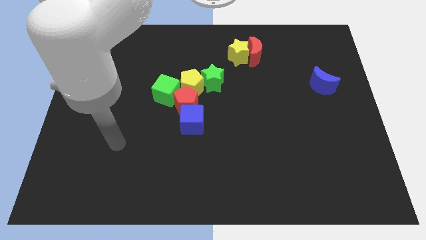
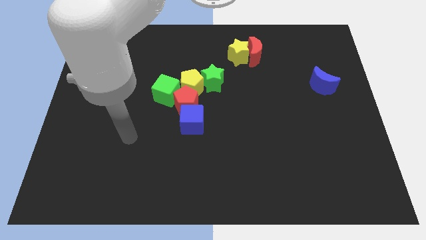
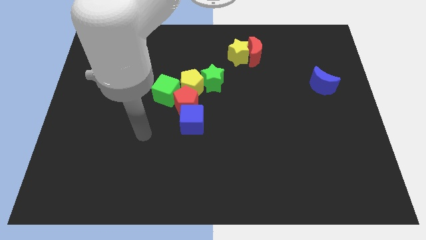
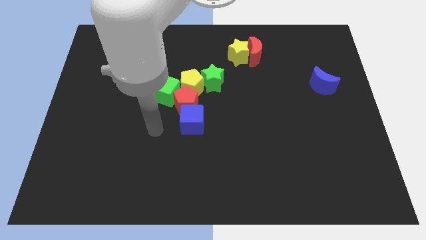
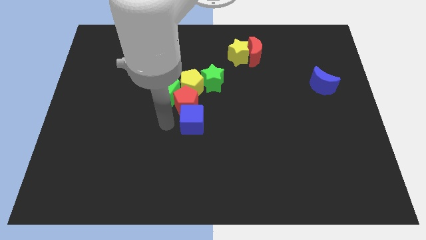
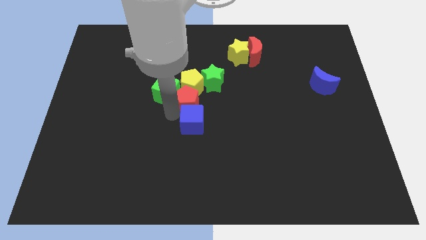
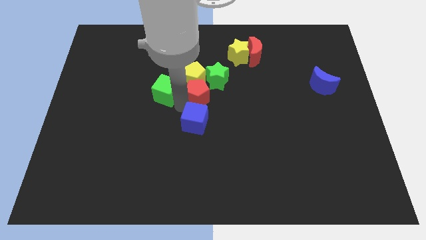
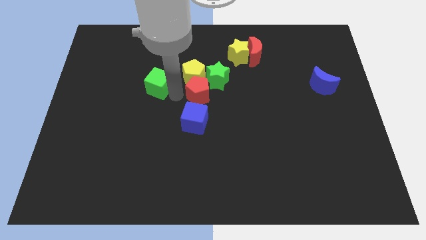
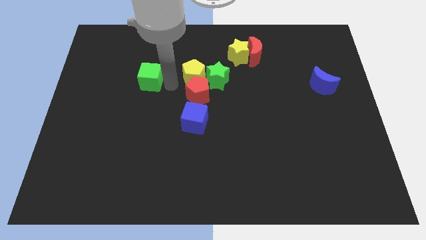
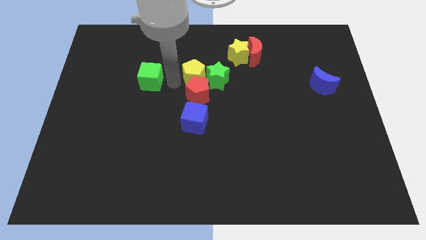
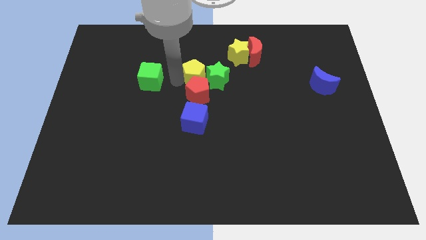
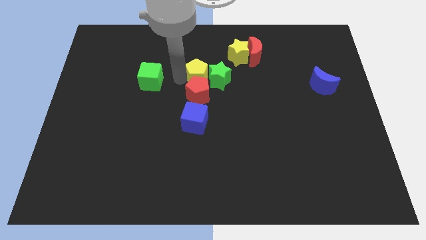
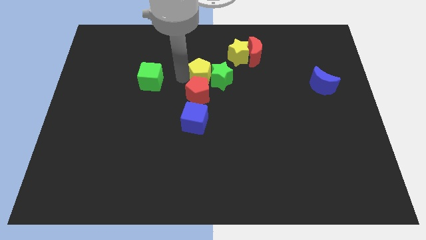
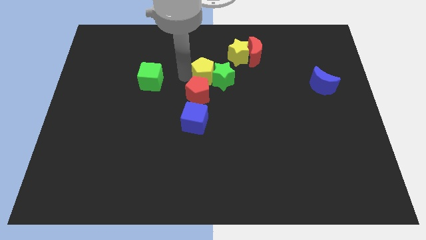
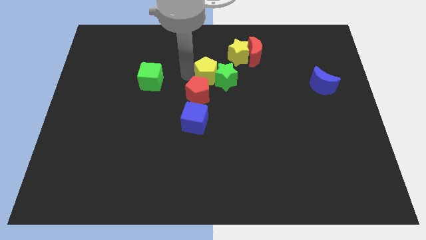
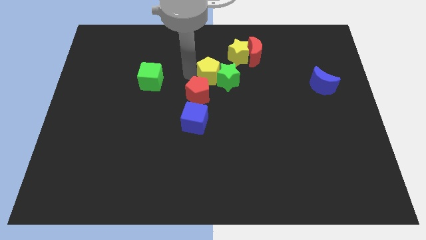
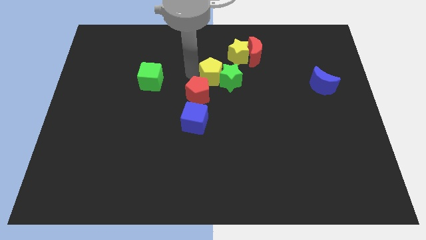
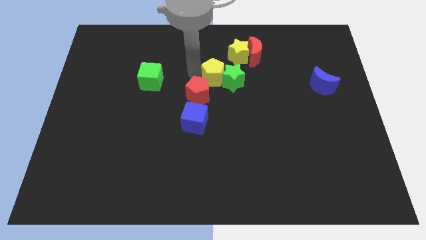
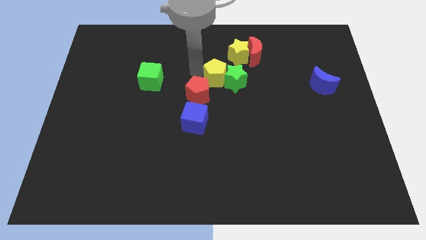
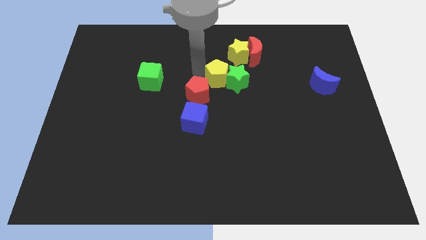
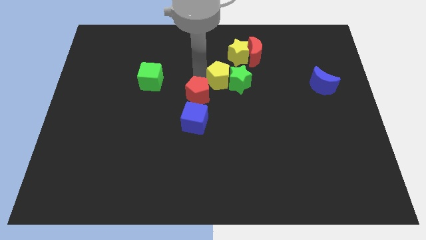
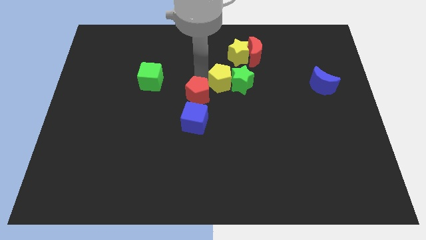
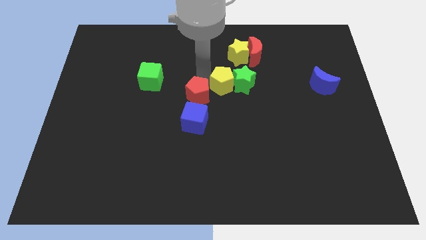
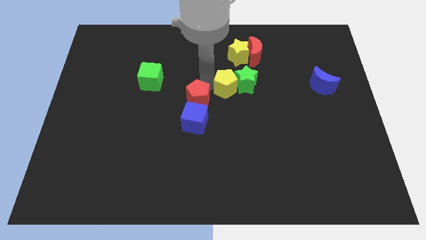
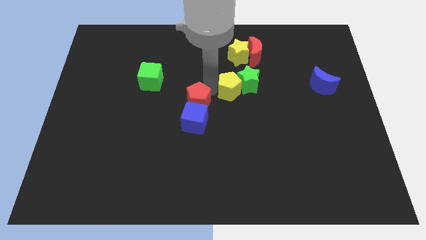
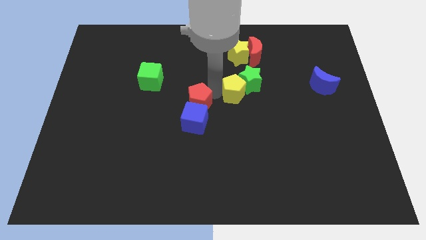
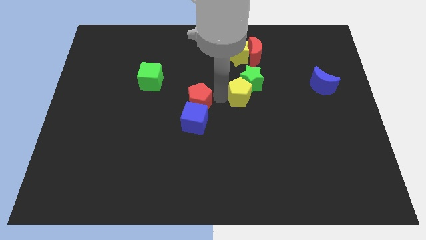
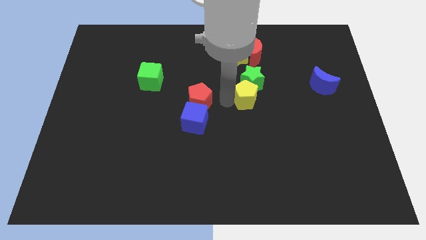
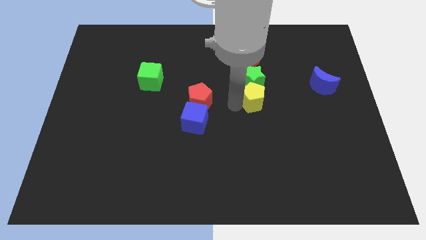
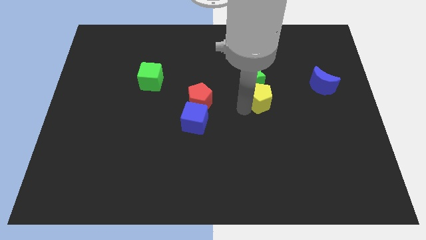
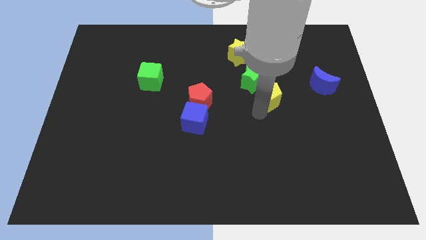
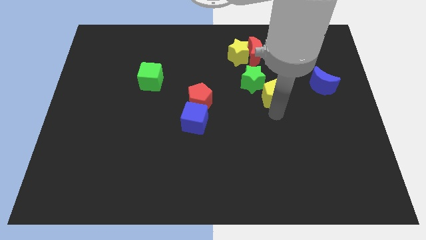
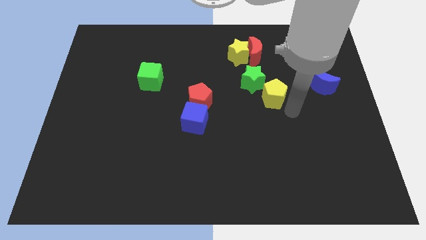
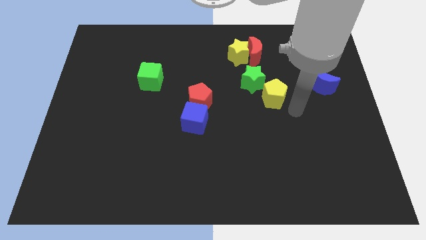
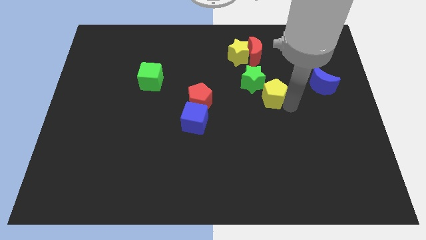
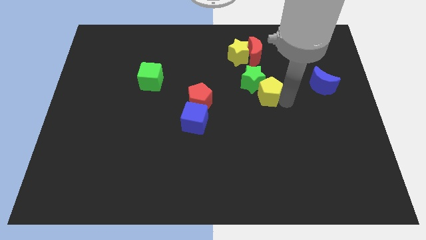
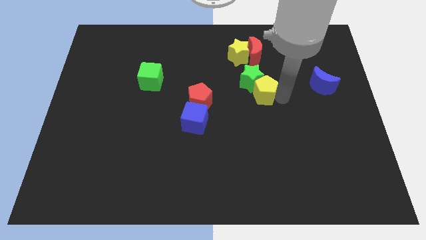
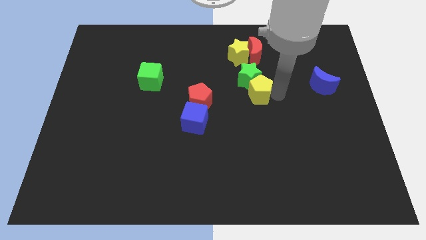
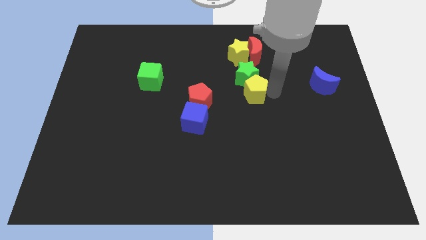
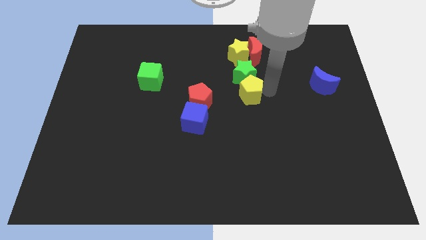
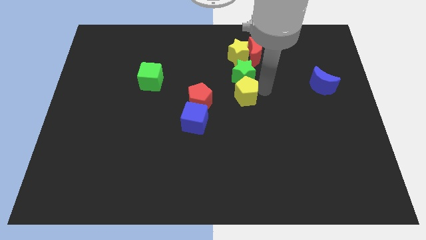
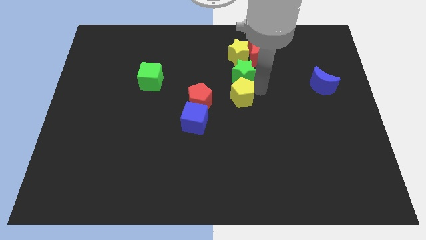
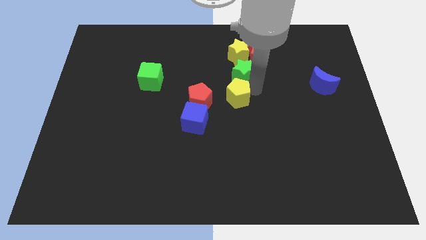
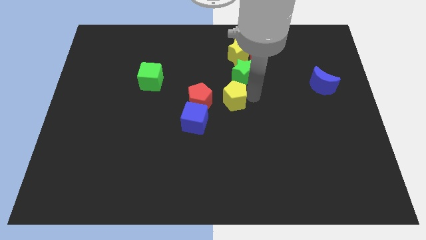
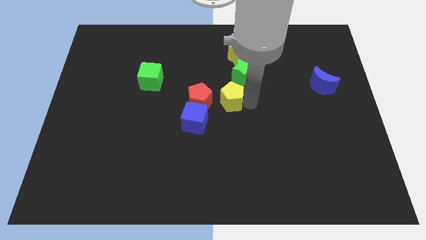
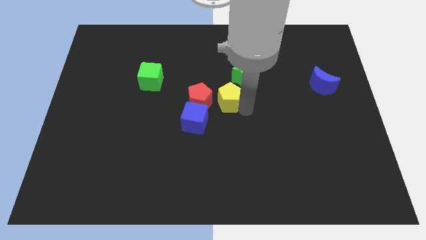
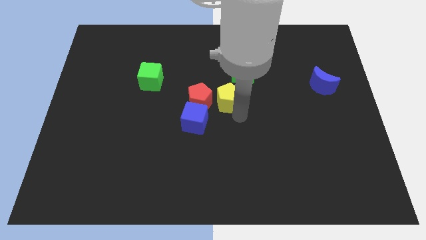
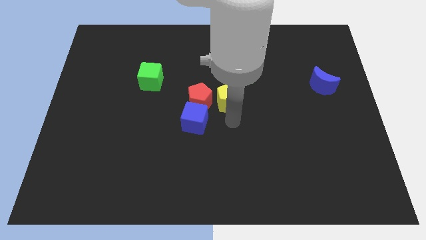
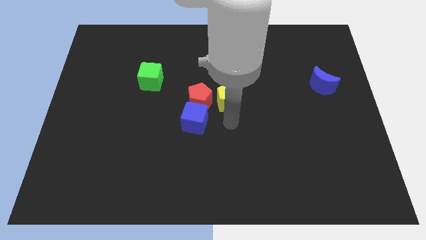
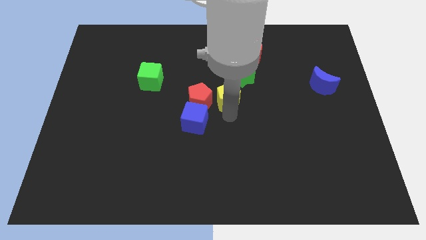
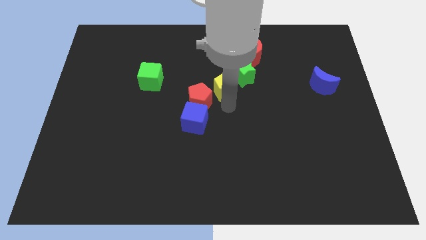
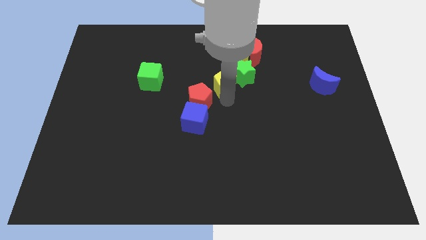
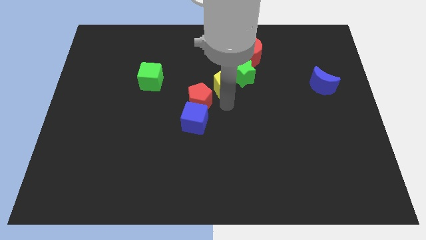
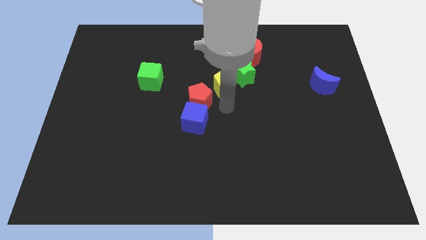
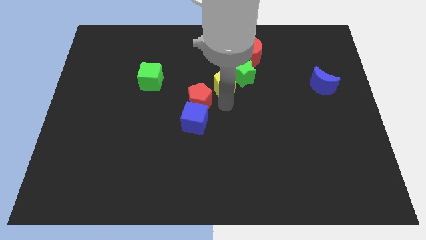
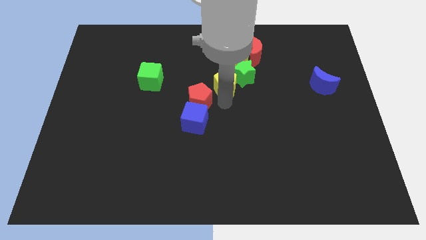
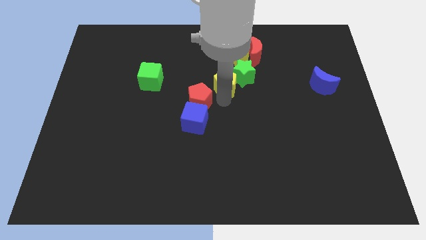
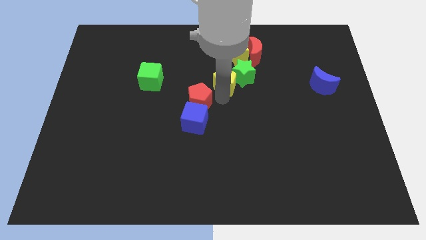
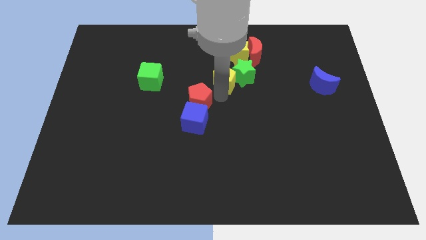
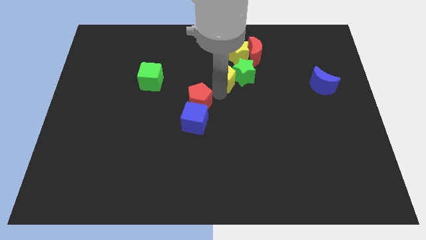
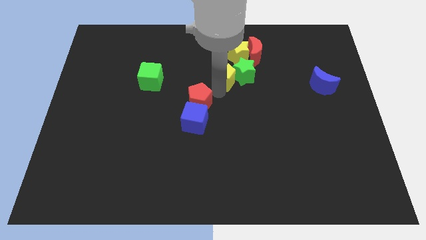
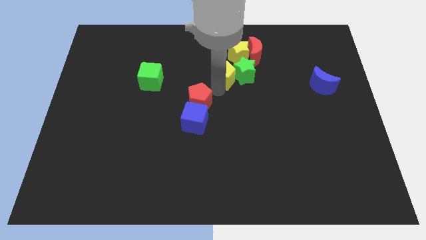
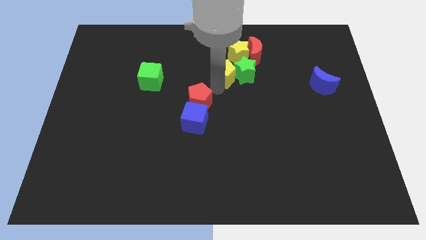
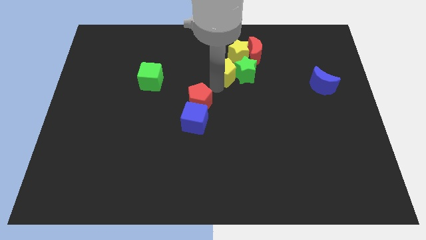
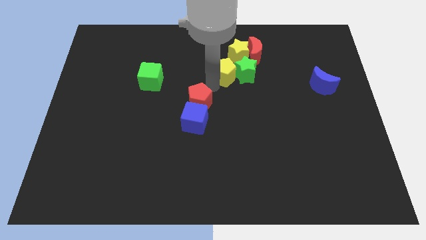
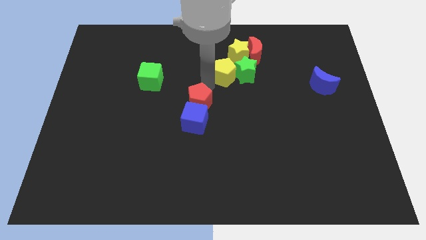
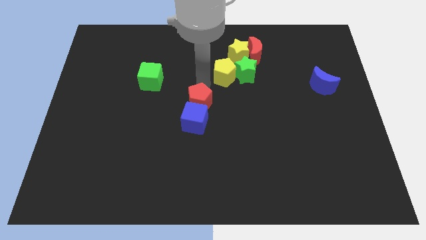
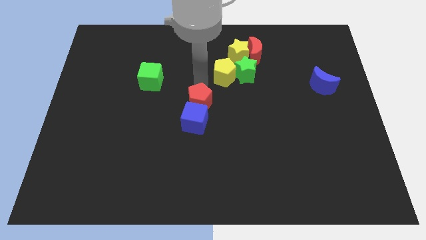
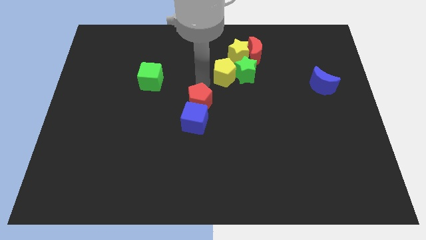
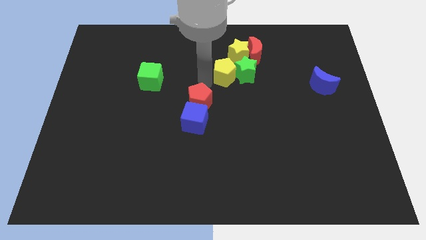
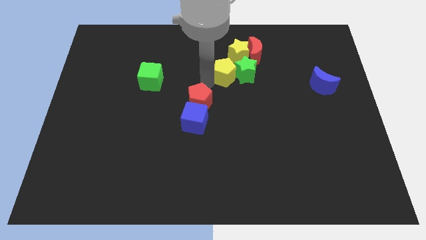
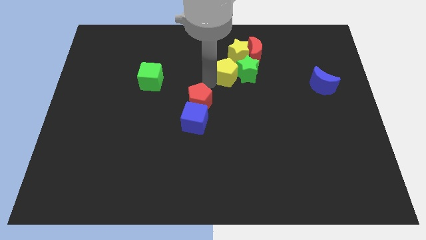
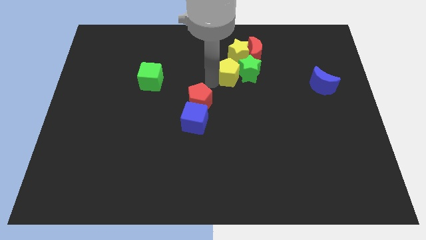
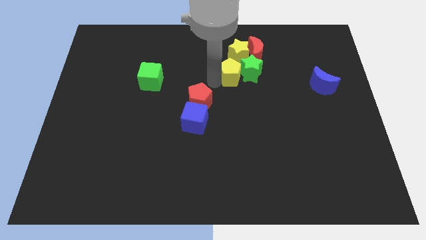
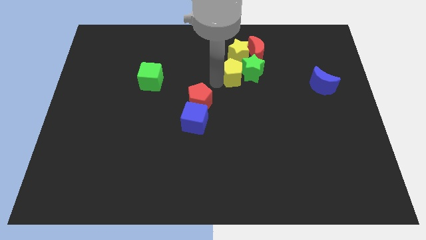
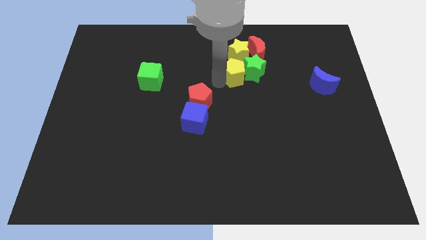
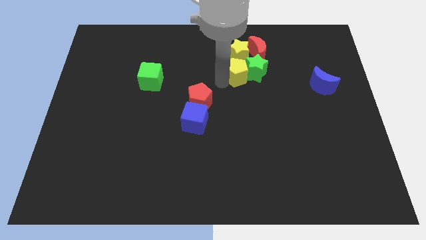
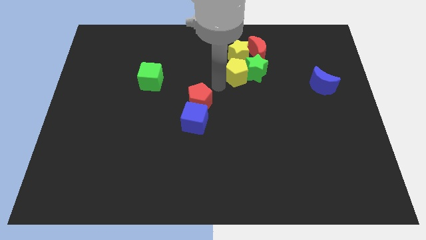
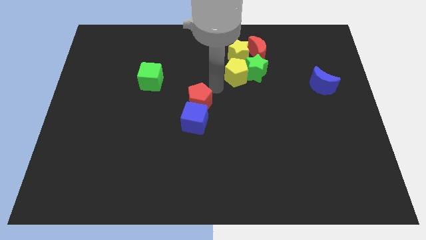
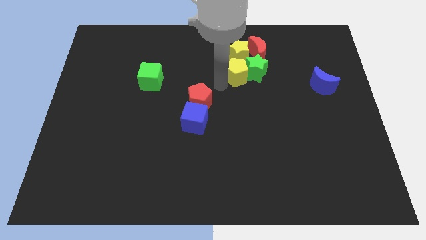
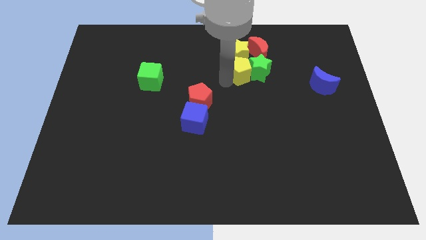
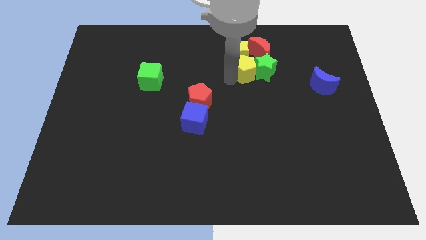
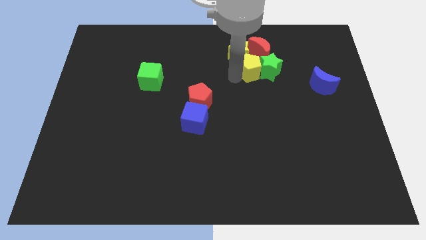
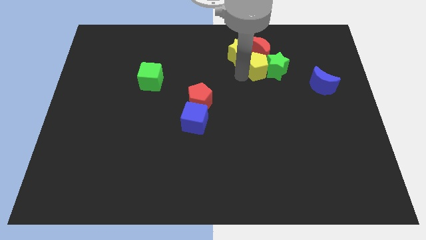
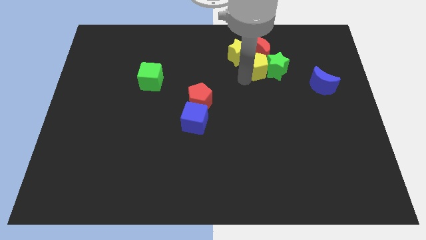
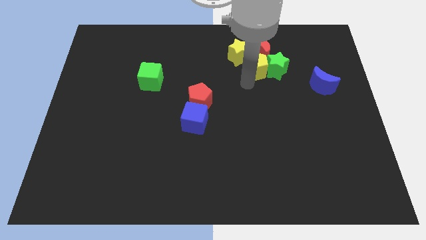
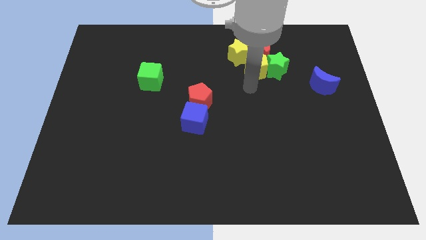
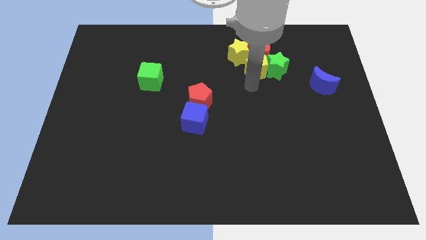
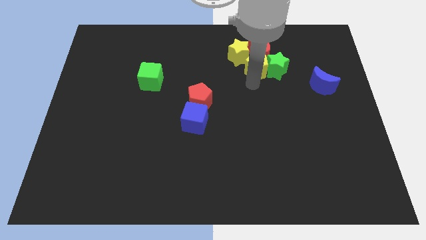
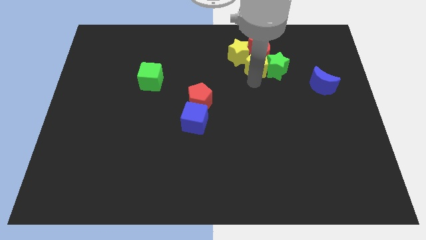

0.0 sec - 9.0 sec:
push the yellow pentagon towards the red moon
